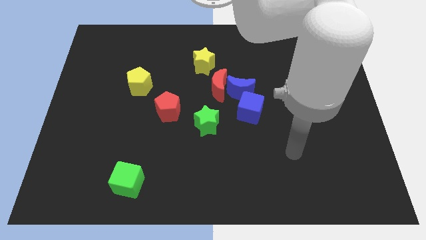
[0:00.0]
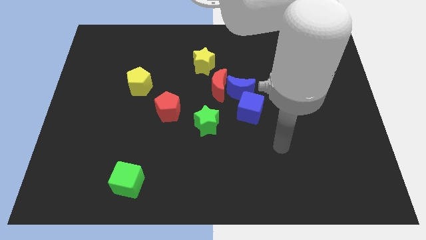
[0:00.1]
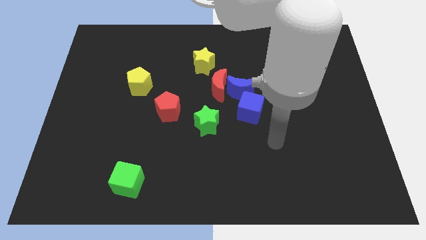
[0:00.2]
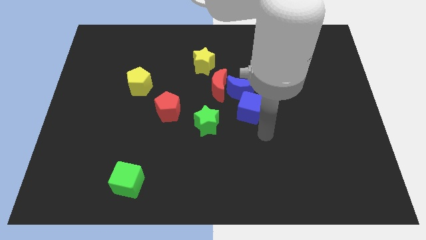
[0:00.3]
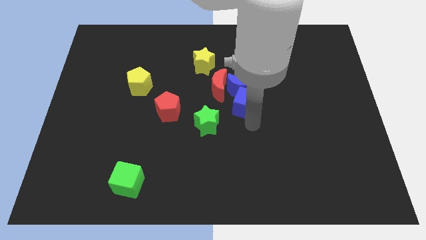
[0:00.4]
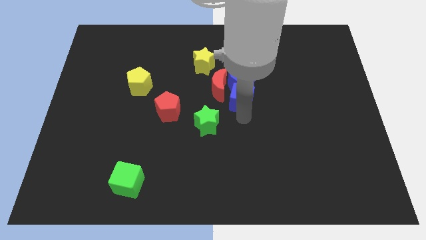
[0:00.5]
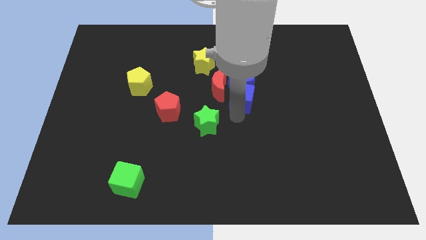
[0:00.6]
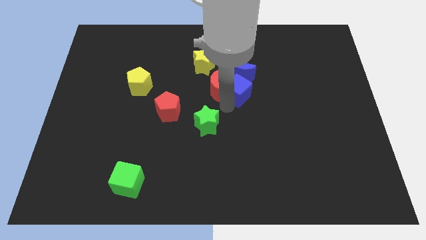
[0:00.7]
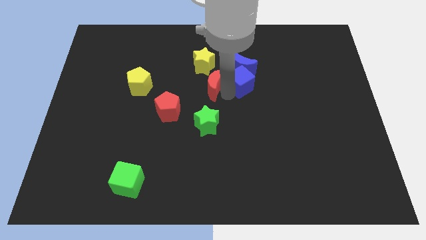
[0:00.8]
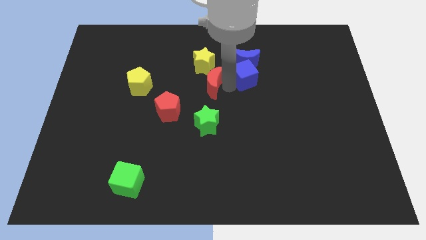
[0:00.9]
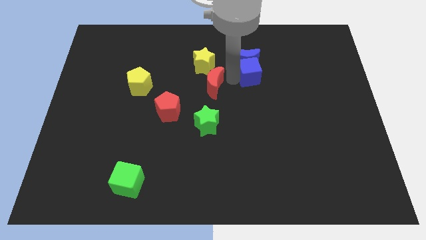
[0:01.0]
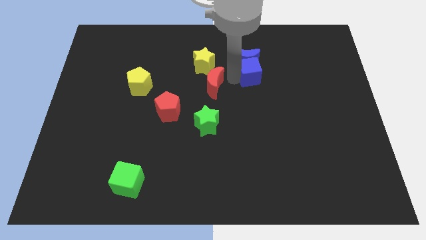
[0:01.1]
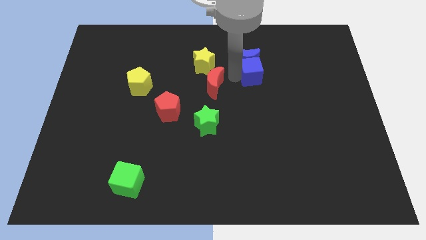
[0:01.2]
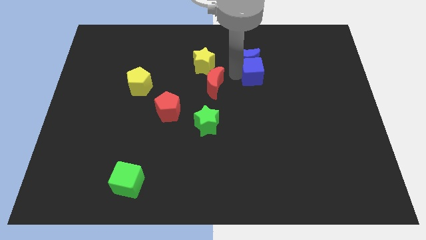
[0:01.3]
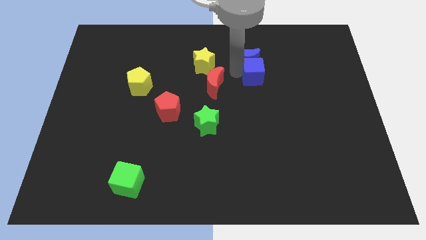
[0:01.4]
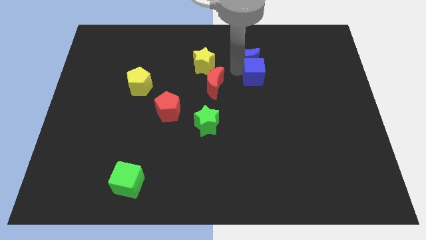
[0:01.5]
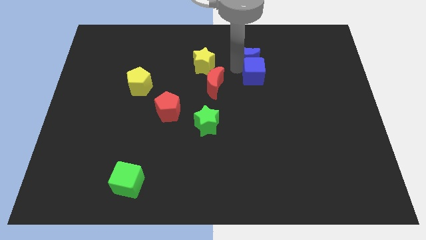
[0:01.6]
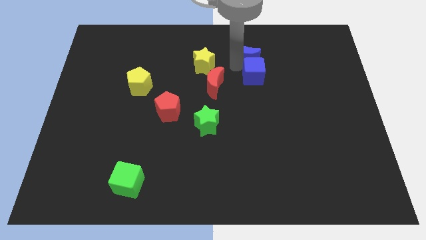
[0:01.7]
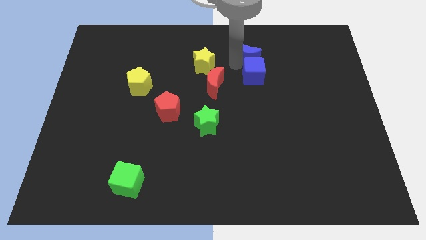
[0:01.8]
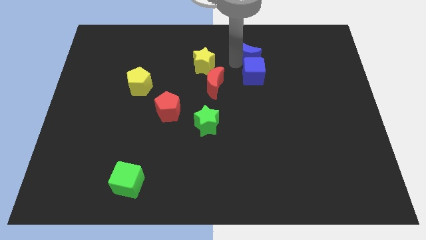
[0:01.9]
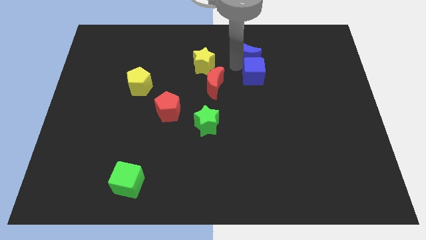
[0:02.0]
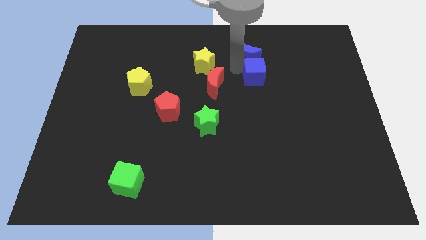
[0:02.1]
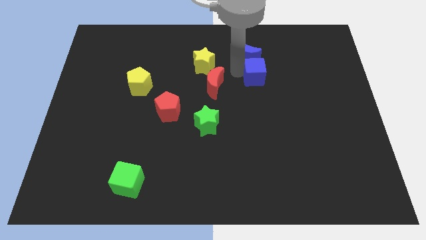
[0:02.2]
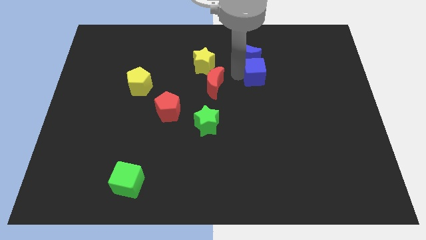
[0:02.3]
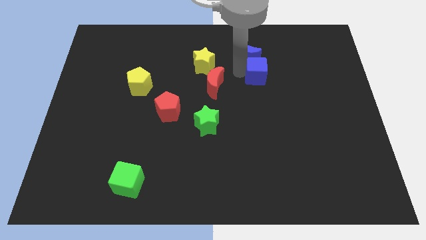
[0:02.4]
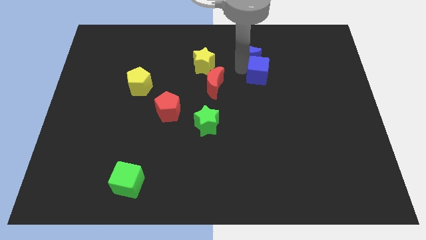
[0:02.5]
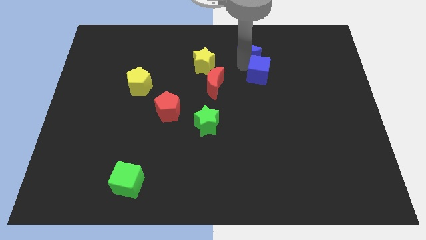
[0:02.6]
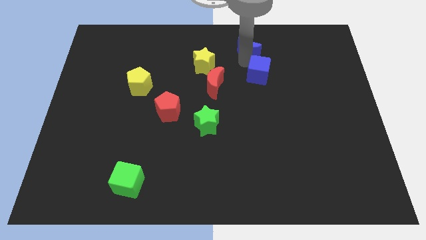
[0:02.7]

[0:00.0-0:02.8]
pull the blue moon apart from the red moon and blue cube

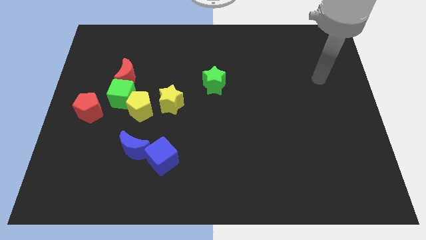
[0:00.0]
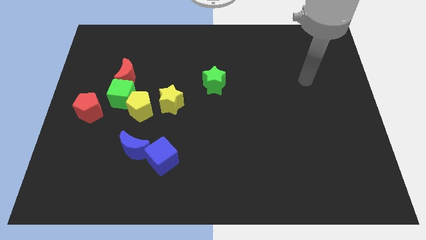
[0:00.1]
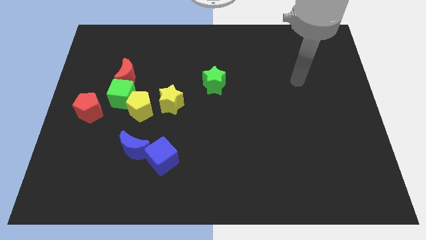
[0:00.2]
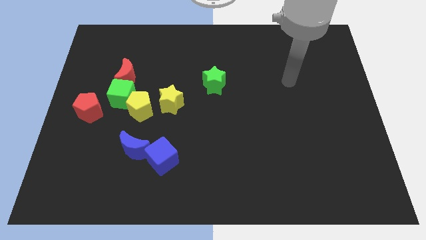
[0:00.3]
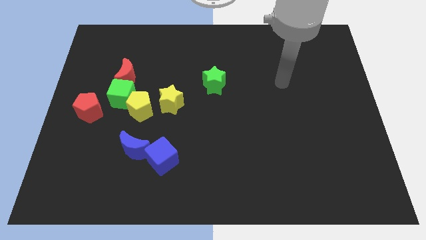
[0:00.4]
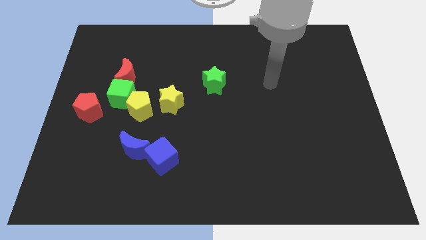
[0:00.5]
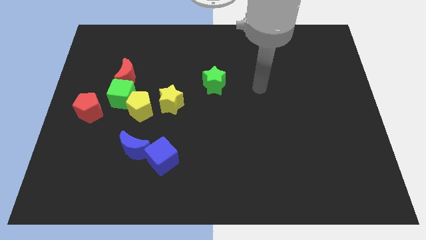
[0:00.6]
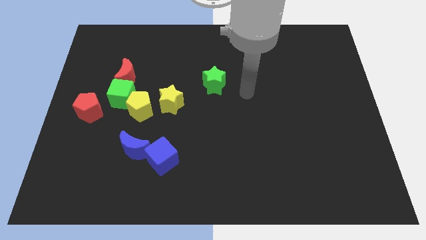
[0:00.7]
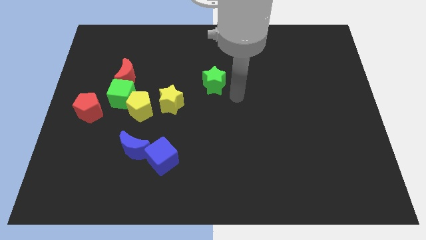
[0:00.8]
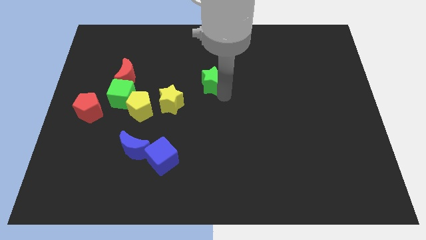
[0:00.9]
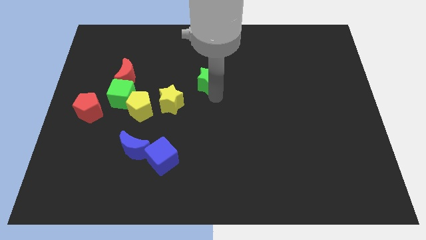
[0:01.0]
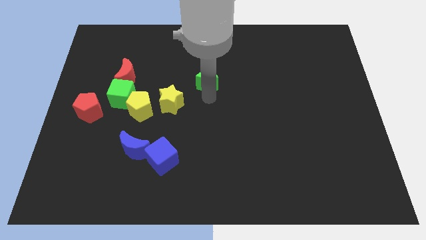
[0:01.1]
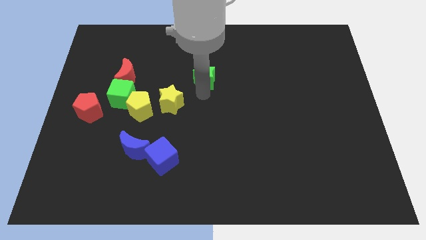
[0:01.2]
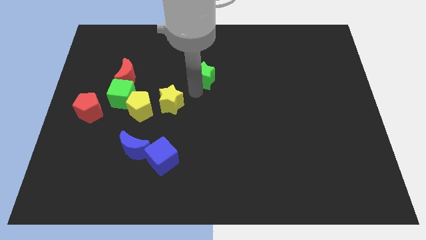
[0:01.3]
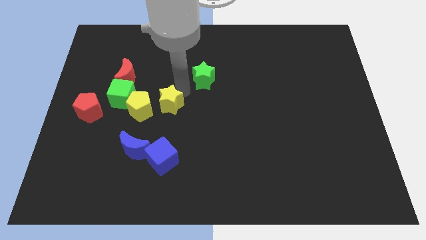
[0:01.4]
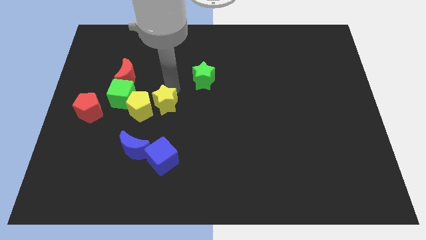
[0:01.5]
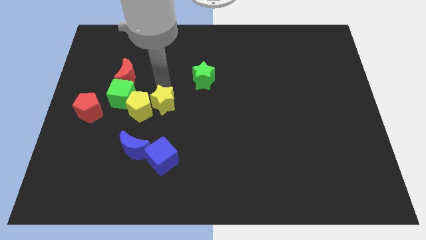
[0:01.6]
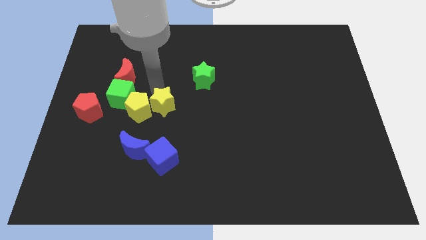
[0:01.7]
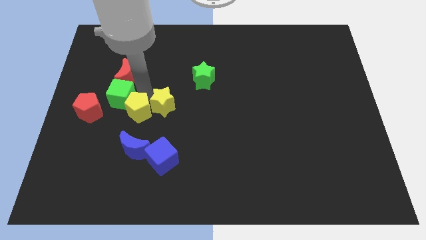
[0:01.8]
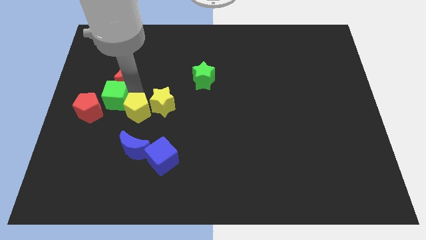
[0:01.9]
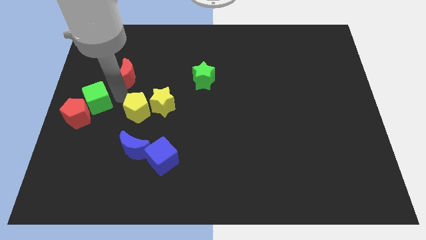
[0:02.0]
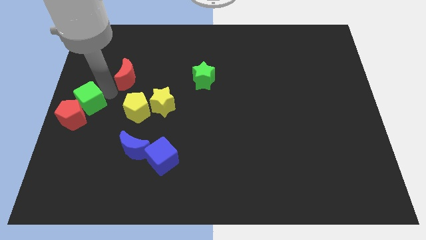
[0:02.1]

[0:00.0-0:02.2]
move the red moon away from the green cube

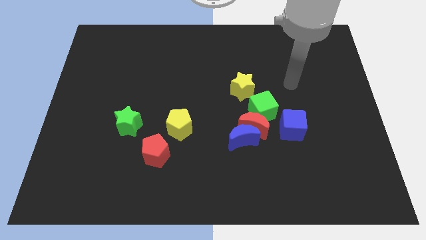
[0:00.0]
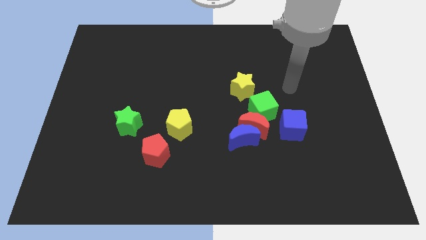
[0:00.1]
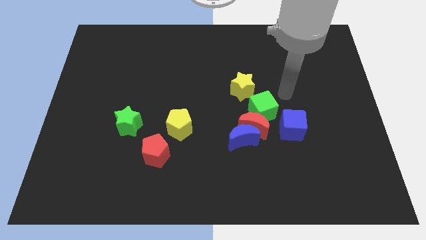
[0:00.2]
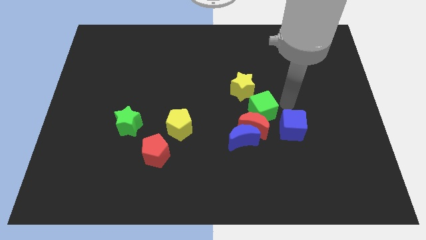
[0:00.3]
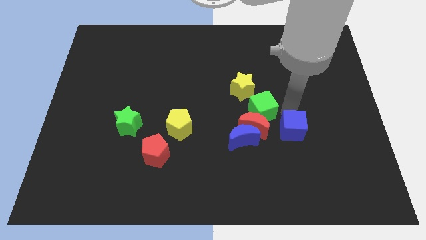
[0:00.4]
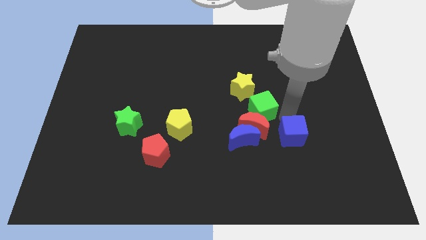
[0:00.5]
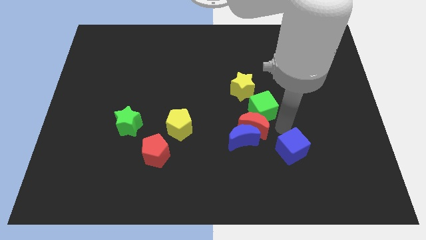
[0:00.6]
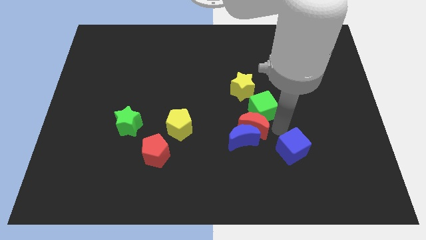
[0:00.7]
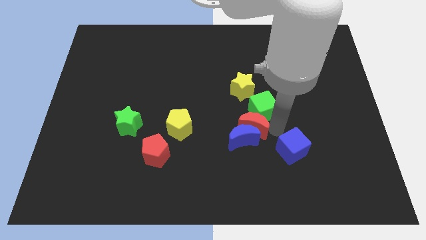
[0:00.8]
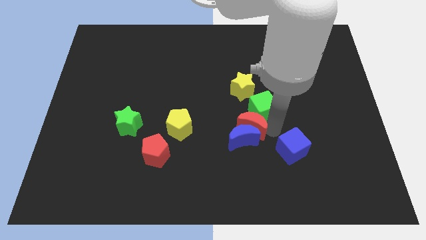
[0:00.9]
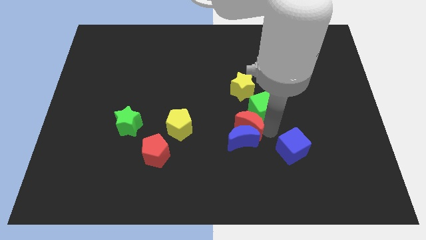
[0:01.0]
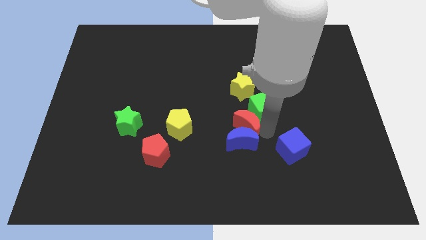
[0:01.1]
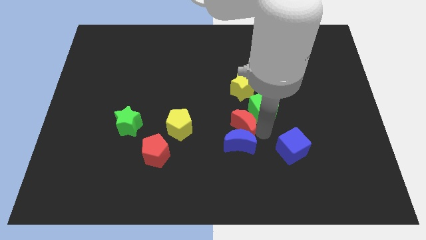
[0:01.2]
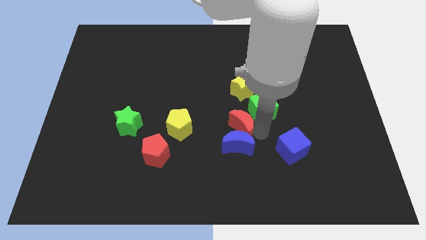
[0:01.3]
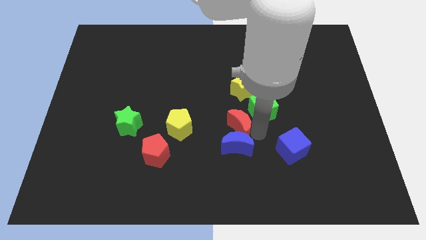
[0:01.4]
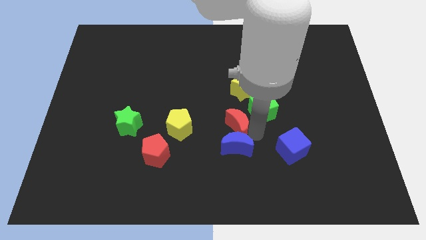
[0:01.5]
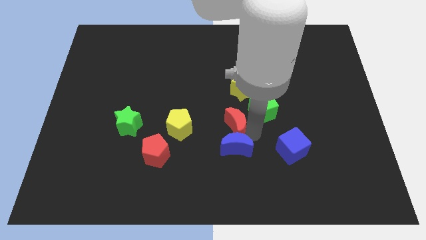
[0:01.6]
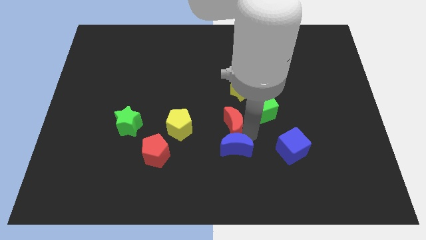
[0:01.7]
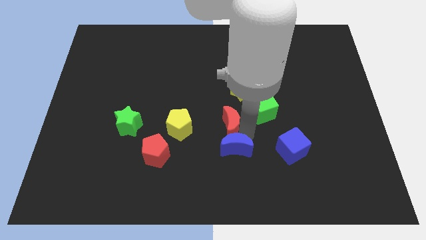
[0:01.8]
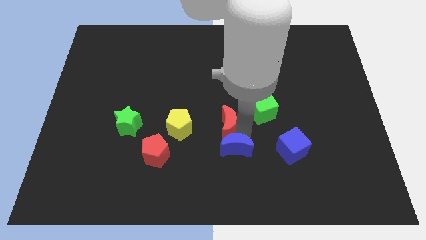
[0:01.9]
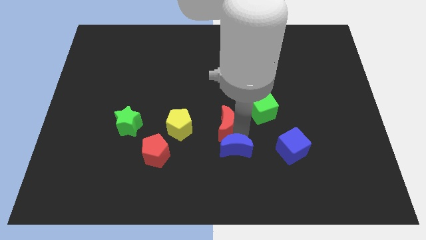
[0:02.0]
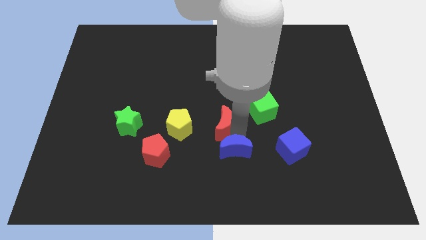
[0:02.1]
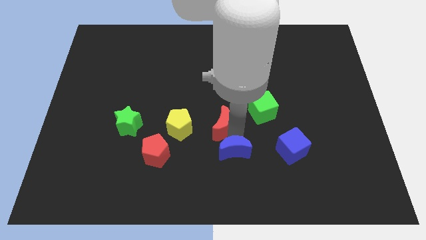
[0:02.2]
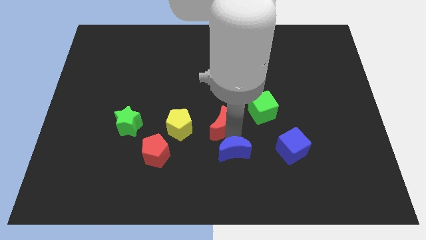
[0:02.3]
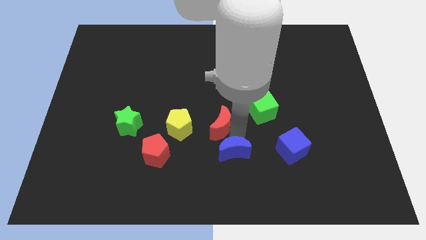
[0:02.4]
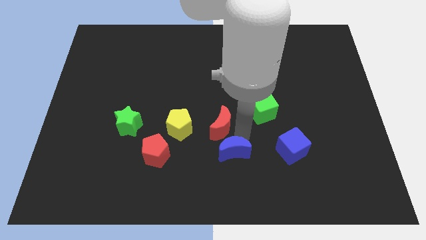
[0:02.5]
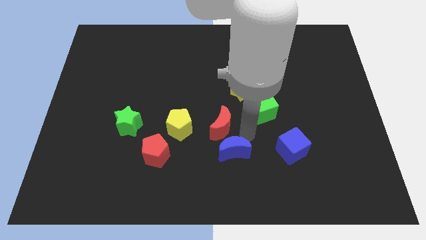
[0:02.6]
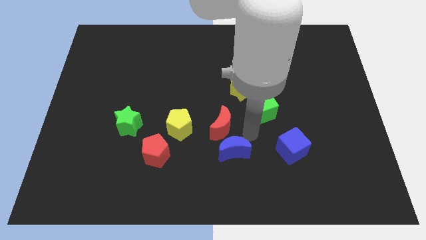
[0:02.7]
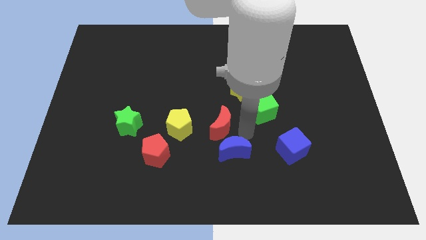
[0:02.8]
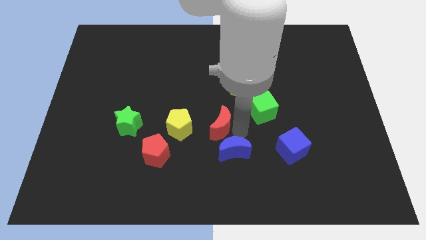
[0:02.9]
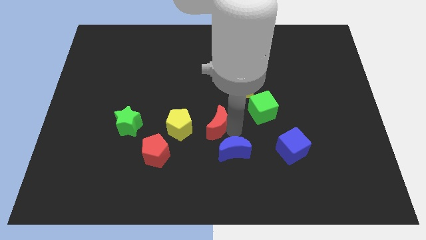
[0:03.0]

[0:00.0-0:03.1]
pull the red moon apart from the blue moon, green cube, and blue cube

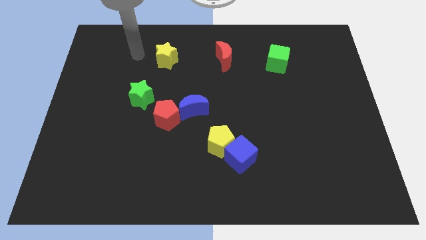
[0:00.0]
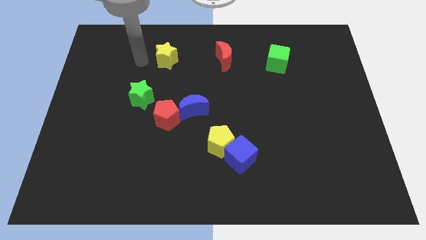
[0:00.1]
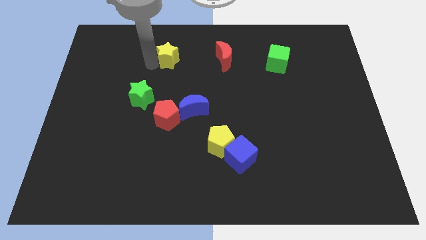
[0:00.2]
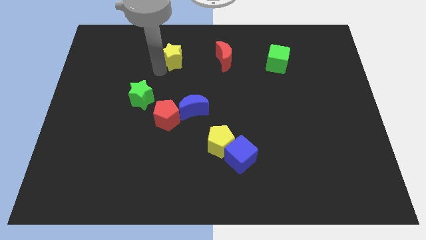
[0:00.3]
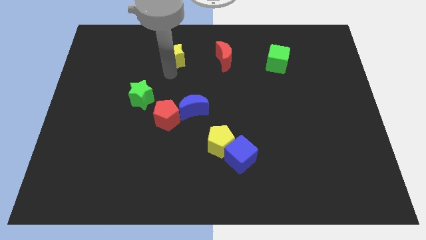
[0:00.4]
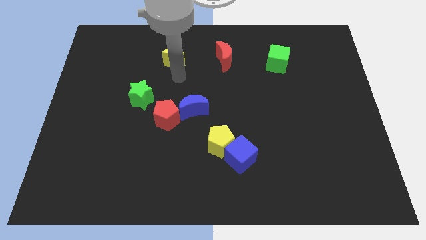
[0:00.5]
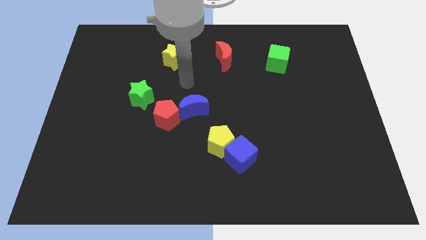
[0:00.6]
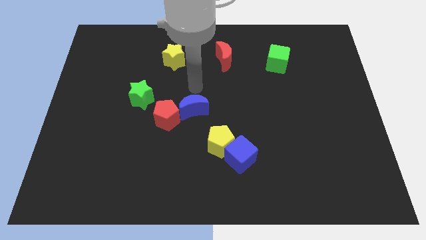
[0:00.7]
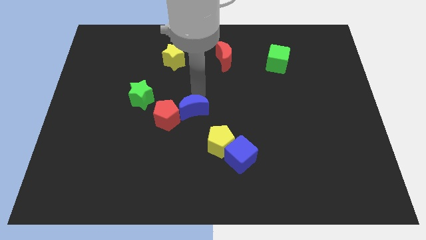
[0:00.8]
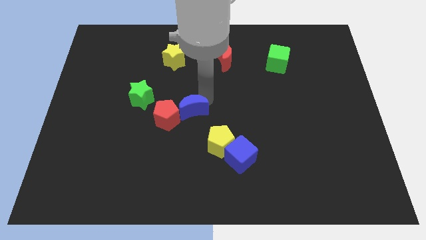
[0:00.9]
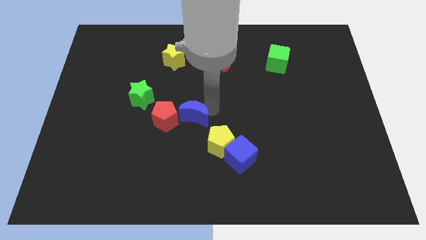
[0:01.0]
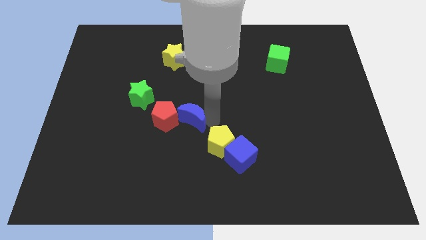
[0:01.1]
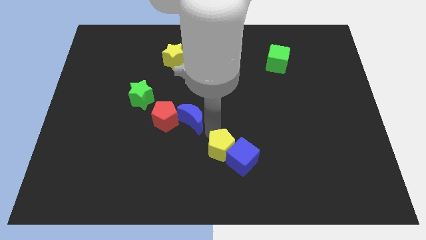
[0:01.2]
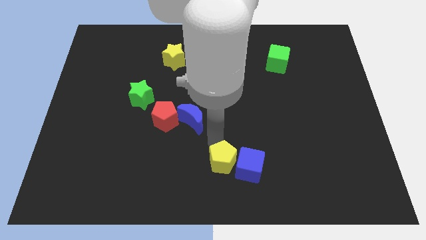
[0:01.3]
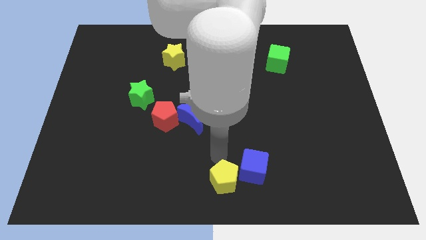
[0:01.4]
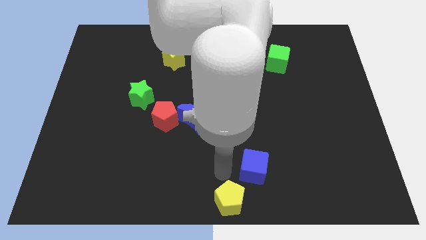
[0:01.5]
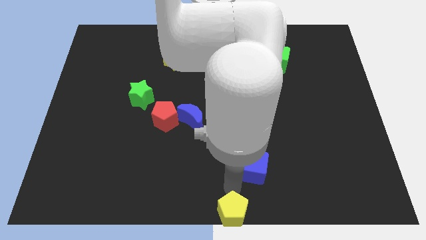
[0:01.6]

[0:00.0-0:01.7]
pull the blue cube apart from the yellow pentagon
